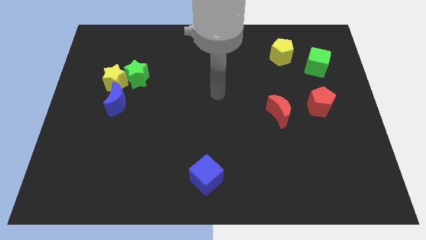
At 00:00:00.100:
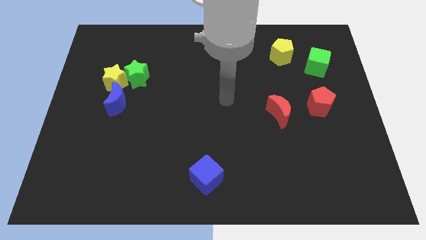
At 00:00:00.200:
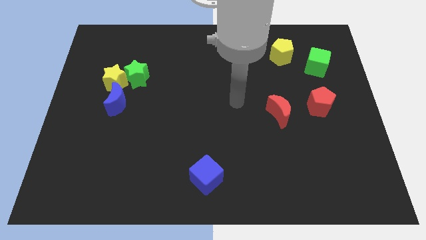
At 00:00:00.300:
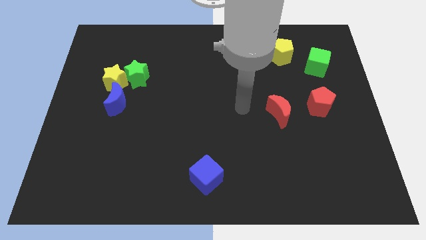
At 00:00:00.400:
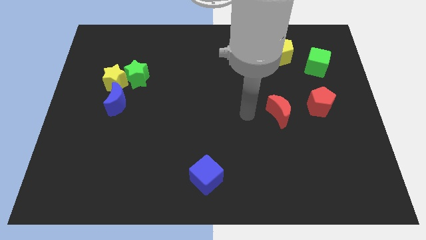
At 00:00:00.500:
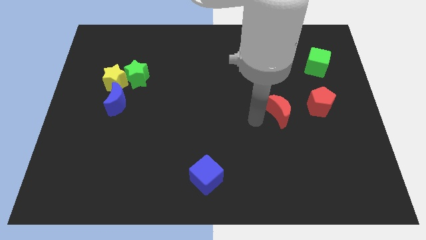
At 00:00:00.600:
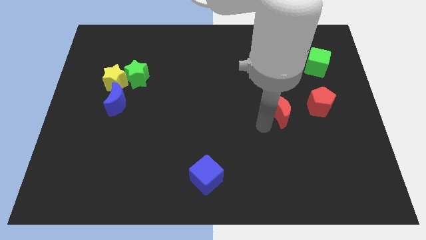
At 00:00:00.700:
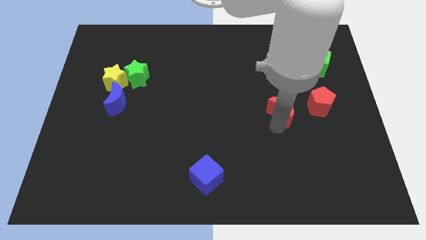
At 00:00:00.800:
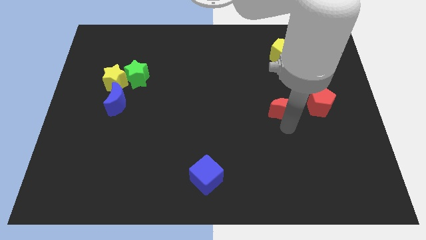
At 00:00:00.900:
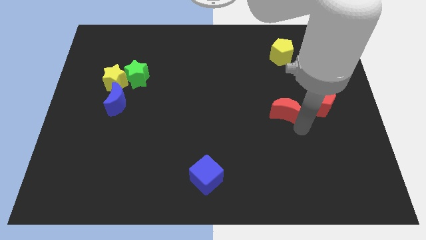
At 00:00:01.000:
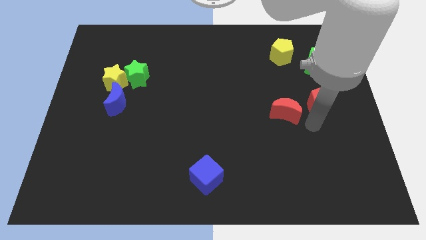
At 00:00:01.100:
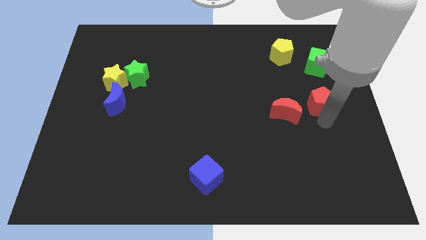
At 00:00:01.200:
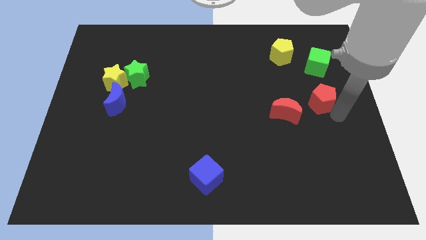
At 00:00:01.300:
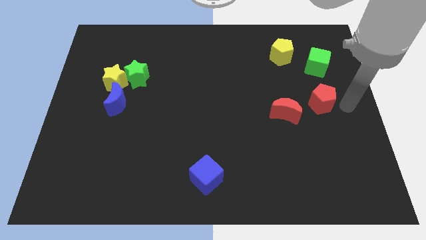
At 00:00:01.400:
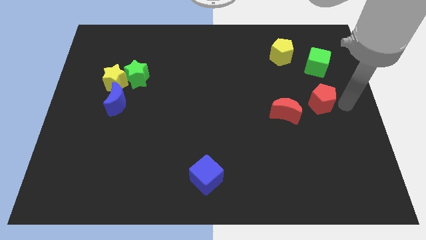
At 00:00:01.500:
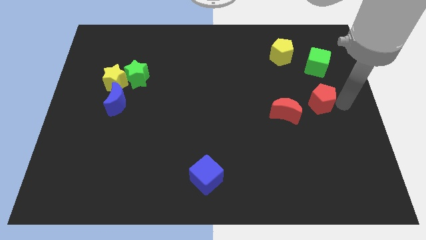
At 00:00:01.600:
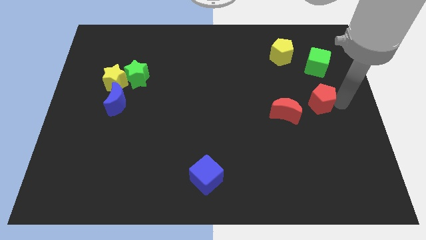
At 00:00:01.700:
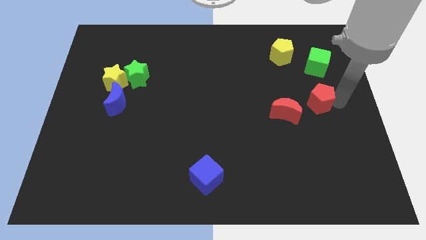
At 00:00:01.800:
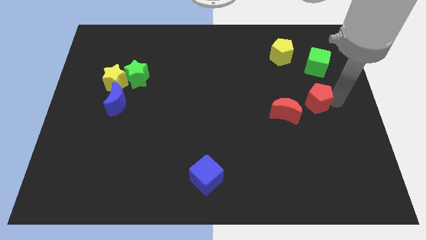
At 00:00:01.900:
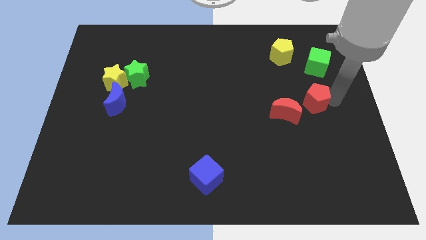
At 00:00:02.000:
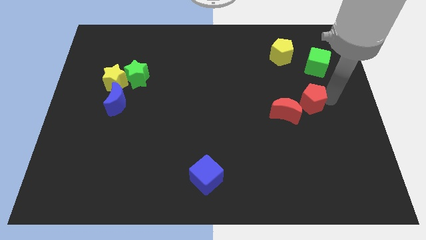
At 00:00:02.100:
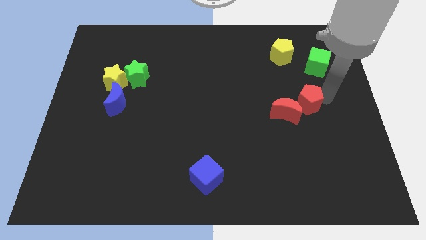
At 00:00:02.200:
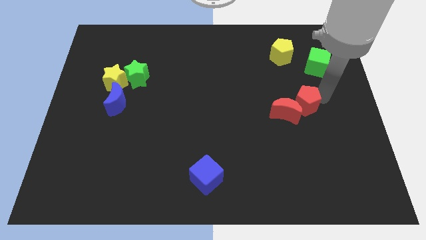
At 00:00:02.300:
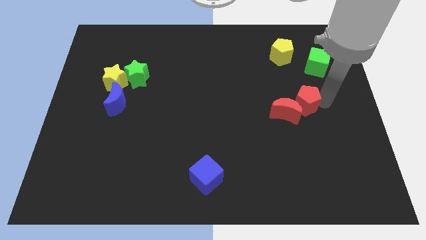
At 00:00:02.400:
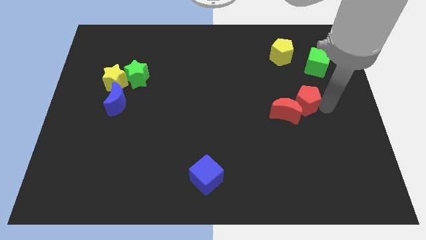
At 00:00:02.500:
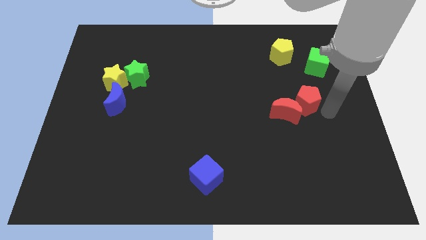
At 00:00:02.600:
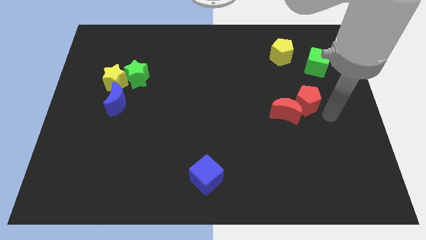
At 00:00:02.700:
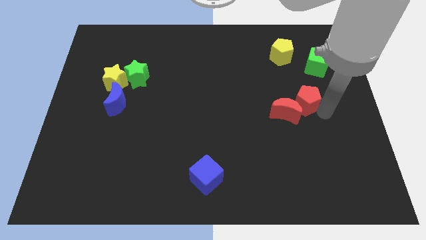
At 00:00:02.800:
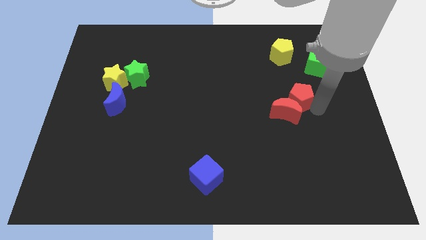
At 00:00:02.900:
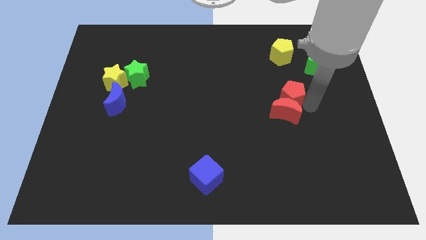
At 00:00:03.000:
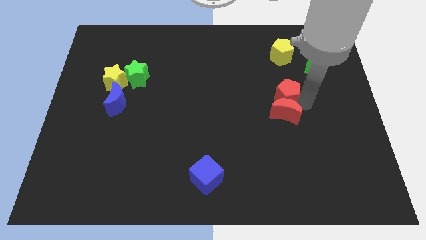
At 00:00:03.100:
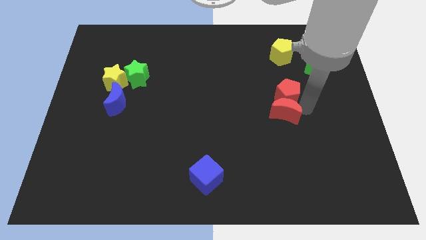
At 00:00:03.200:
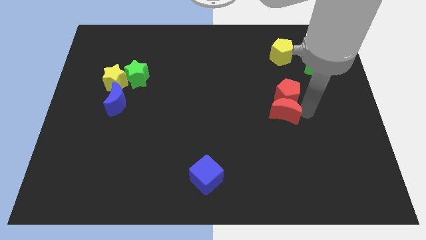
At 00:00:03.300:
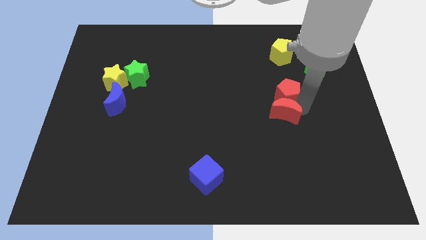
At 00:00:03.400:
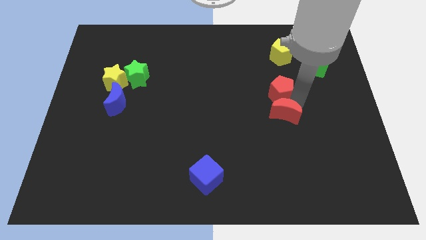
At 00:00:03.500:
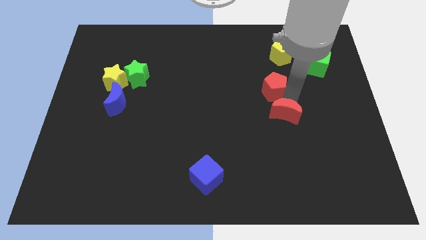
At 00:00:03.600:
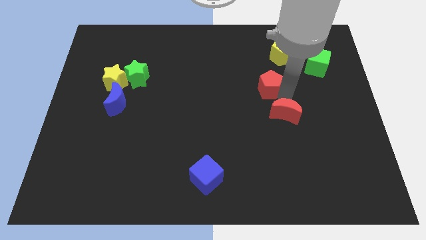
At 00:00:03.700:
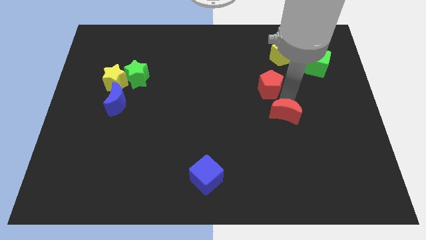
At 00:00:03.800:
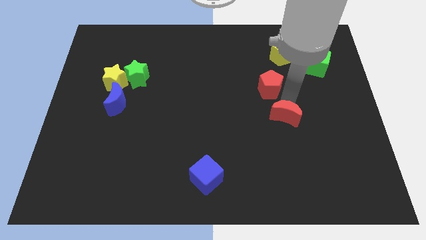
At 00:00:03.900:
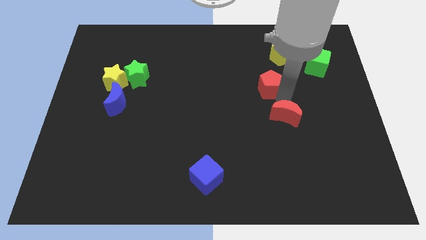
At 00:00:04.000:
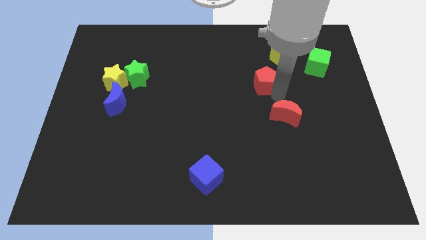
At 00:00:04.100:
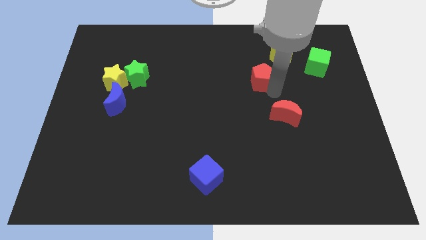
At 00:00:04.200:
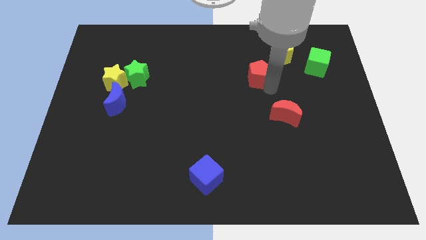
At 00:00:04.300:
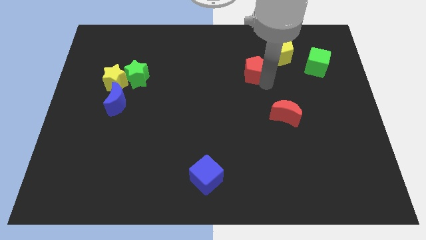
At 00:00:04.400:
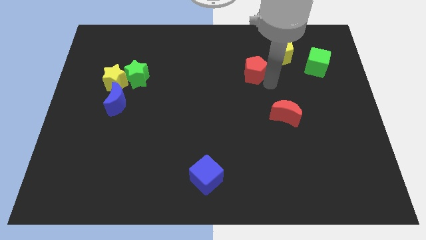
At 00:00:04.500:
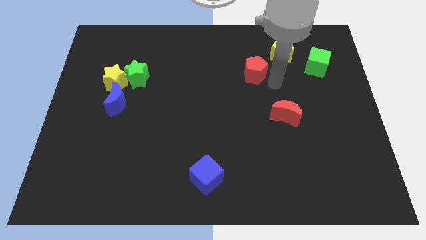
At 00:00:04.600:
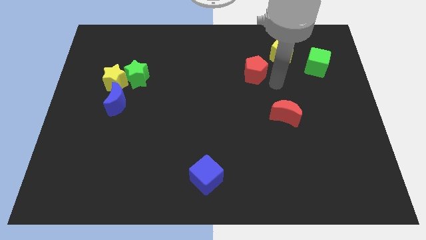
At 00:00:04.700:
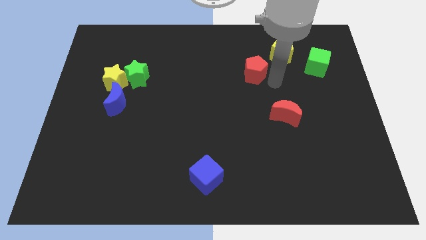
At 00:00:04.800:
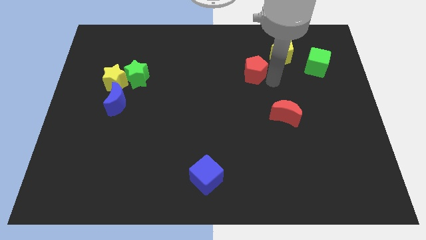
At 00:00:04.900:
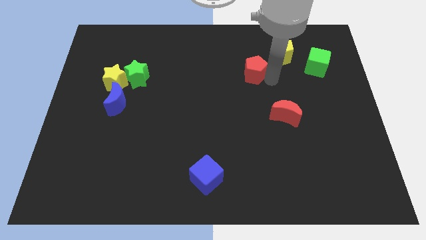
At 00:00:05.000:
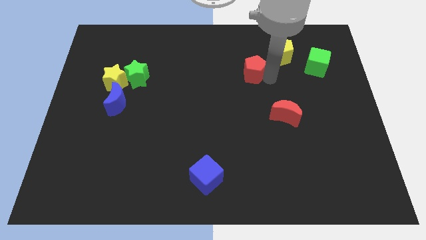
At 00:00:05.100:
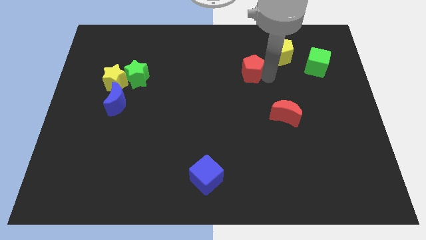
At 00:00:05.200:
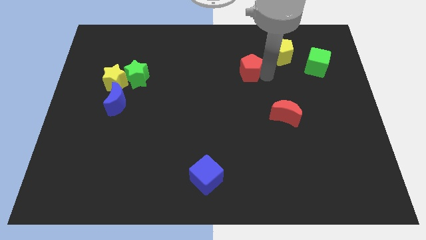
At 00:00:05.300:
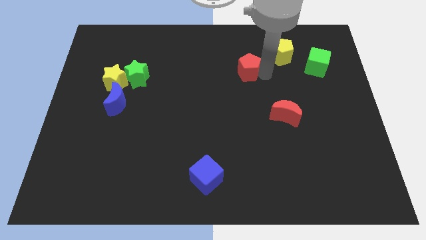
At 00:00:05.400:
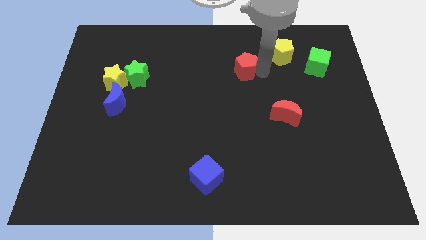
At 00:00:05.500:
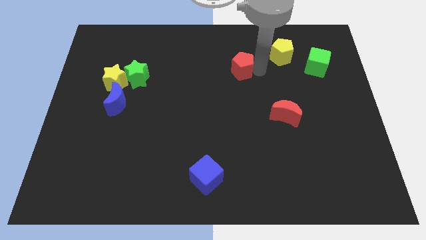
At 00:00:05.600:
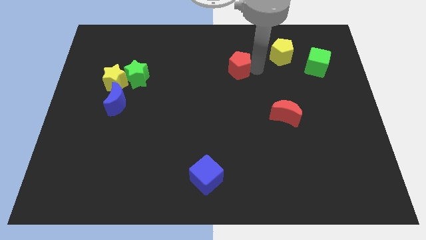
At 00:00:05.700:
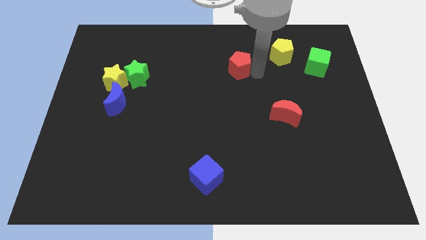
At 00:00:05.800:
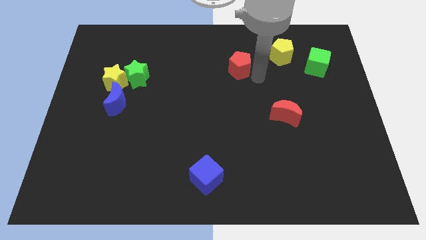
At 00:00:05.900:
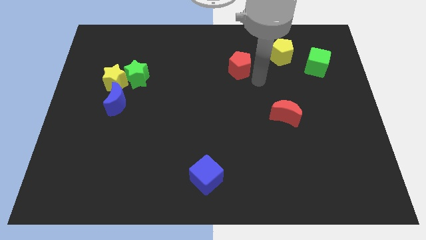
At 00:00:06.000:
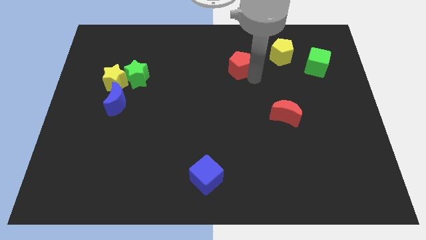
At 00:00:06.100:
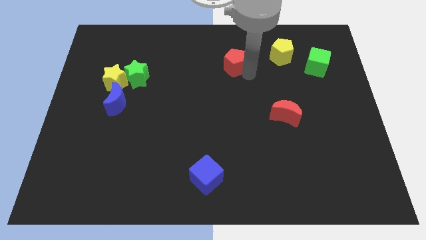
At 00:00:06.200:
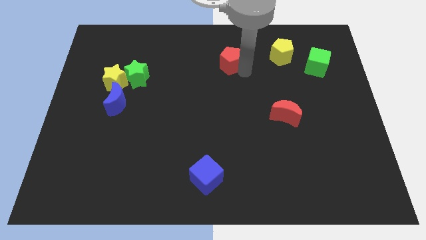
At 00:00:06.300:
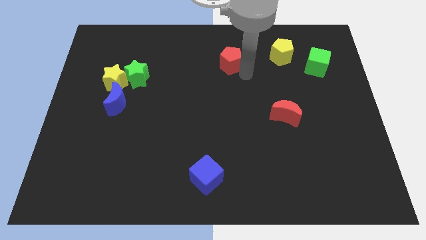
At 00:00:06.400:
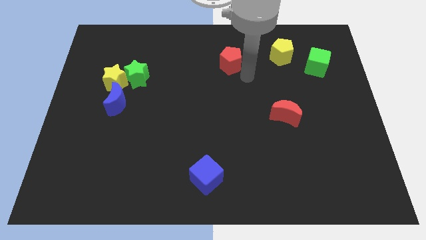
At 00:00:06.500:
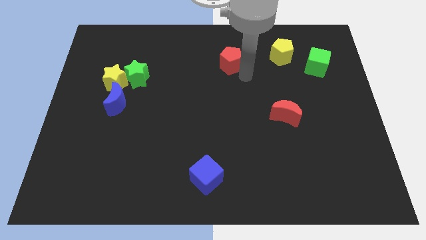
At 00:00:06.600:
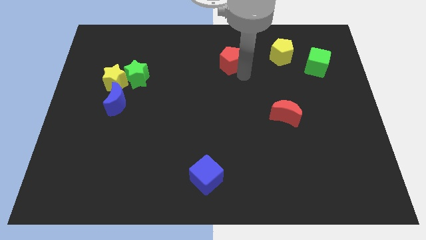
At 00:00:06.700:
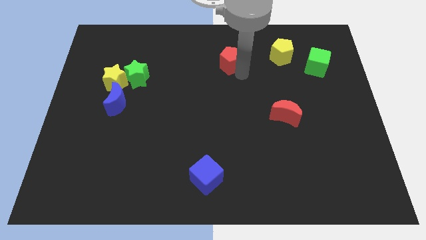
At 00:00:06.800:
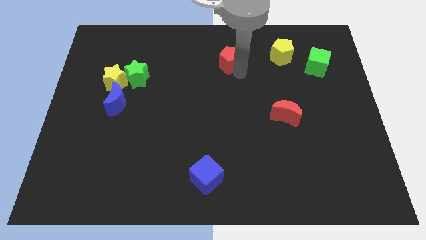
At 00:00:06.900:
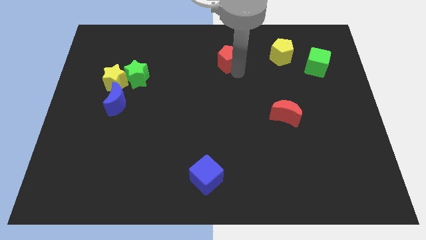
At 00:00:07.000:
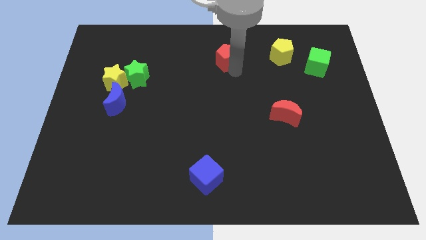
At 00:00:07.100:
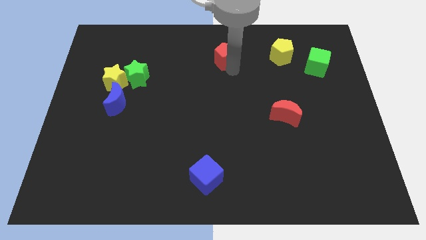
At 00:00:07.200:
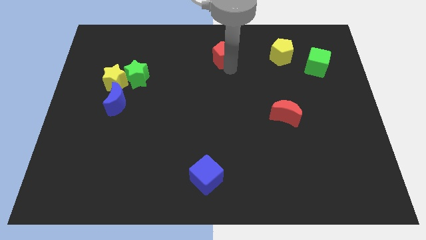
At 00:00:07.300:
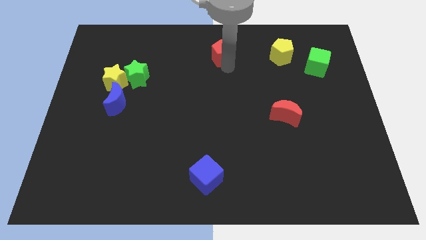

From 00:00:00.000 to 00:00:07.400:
put the red pentagon to the top side

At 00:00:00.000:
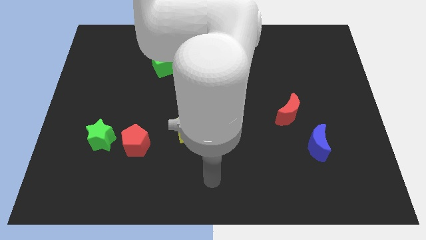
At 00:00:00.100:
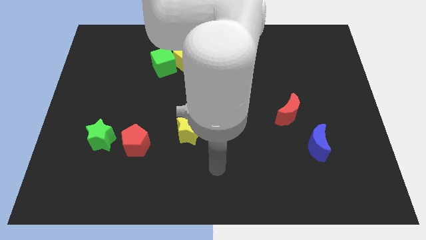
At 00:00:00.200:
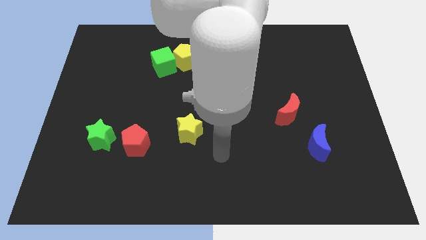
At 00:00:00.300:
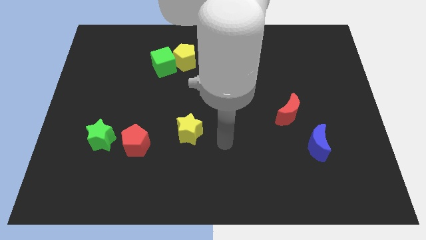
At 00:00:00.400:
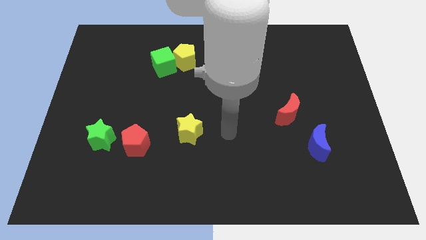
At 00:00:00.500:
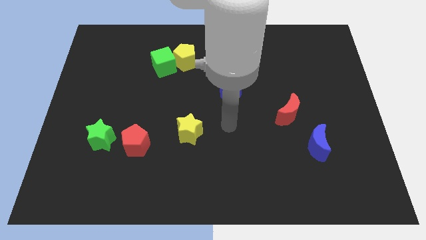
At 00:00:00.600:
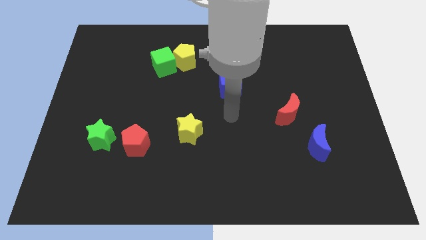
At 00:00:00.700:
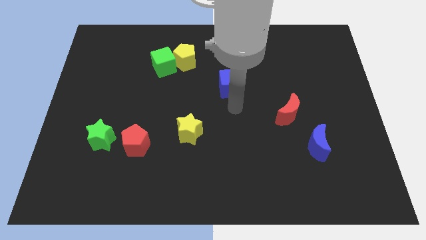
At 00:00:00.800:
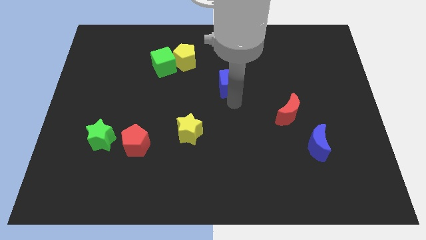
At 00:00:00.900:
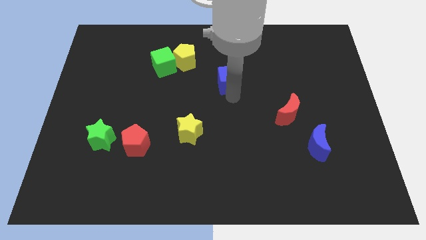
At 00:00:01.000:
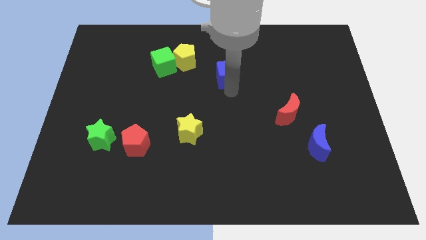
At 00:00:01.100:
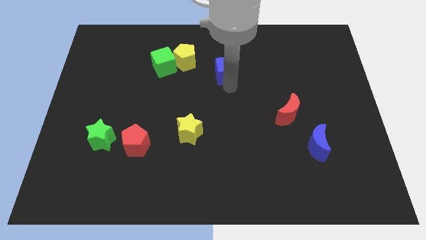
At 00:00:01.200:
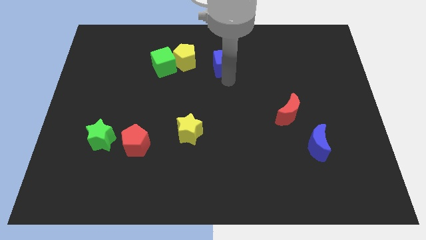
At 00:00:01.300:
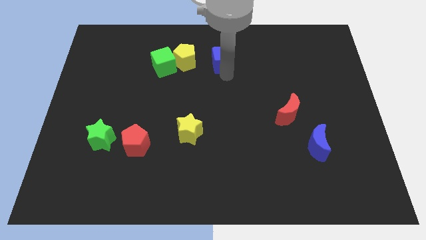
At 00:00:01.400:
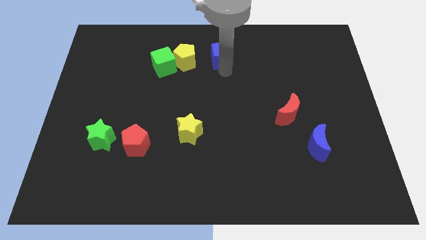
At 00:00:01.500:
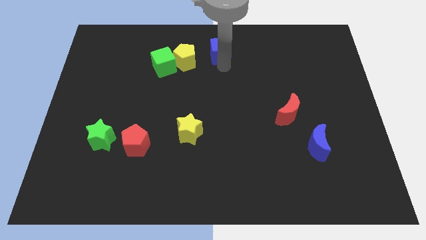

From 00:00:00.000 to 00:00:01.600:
move the blue cube to the top
